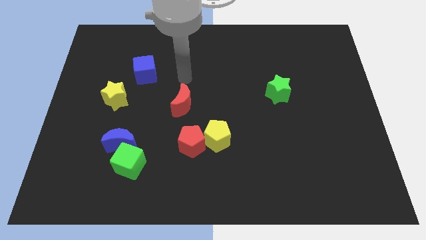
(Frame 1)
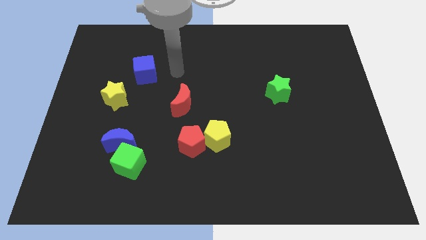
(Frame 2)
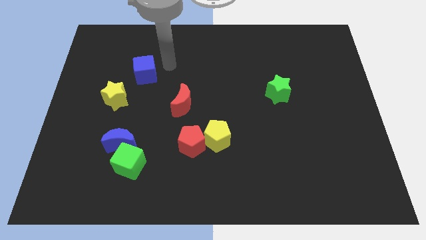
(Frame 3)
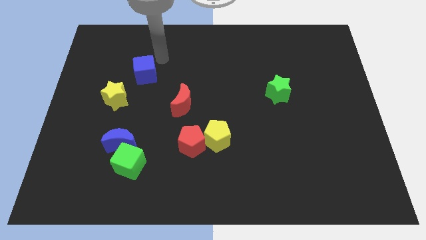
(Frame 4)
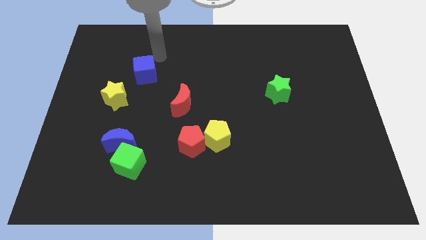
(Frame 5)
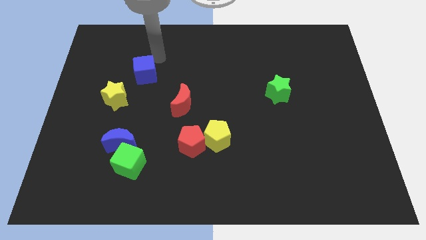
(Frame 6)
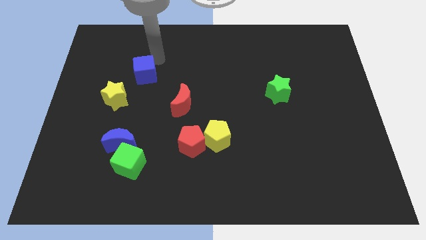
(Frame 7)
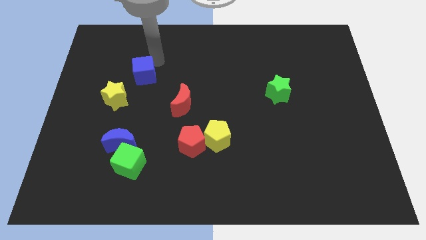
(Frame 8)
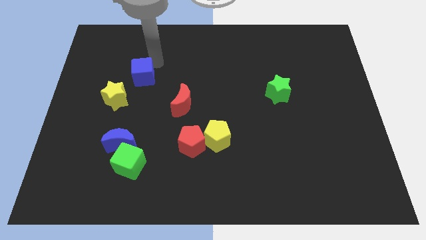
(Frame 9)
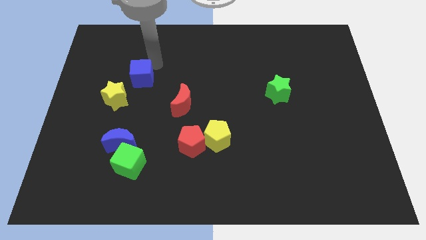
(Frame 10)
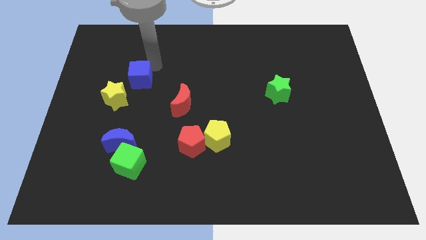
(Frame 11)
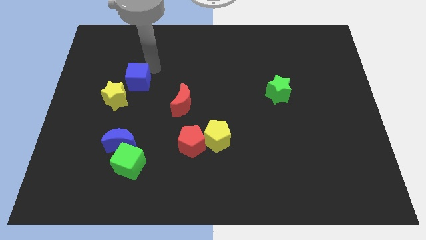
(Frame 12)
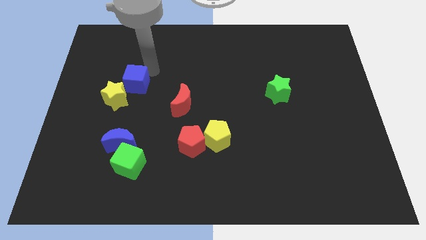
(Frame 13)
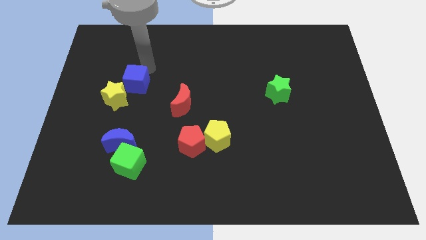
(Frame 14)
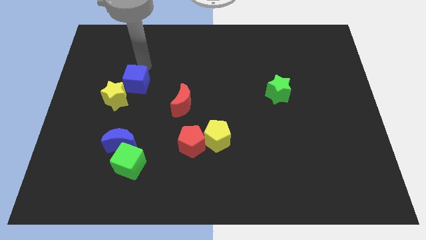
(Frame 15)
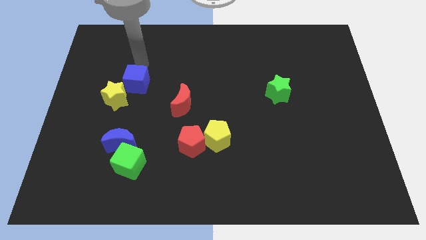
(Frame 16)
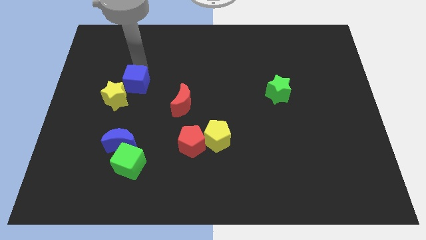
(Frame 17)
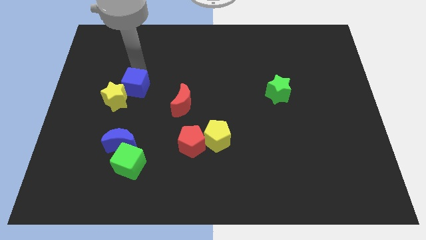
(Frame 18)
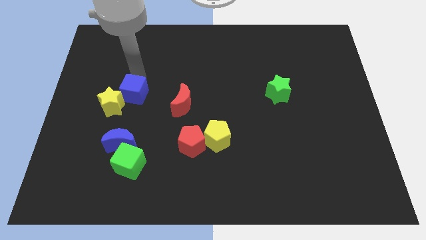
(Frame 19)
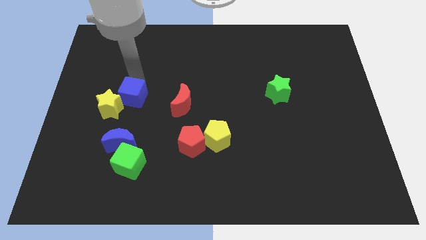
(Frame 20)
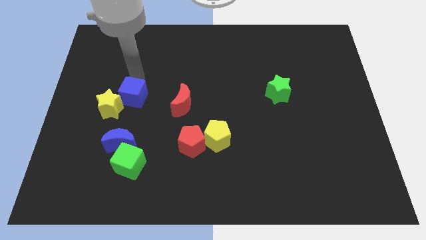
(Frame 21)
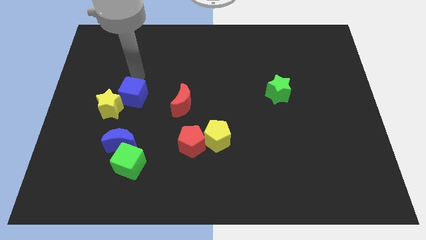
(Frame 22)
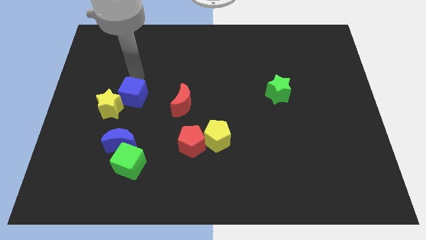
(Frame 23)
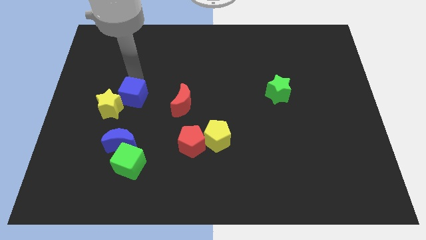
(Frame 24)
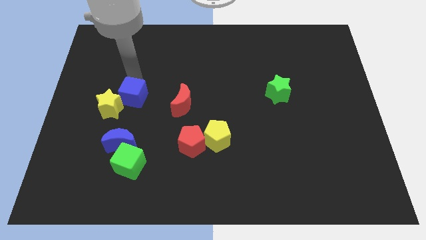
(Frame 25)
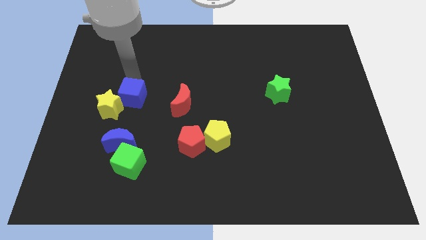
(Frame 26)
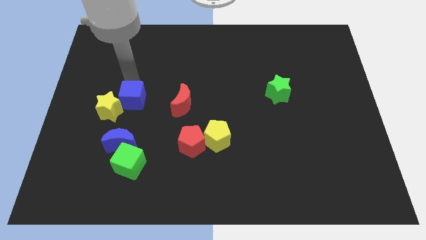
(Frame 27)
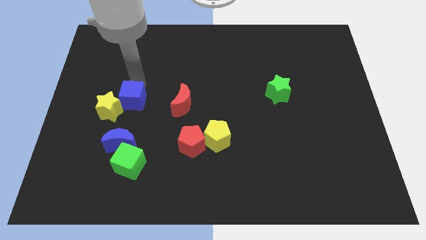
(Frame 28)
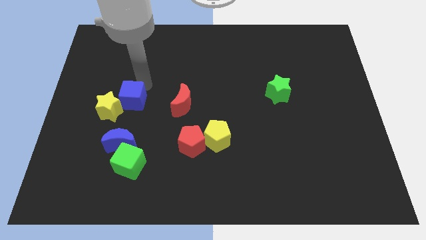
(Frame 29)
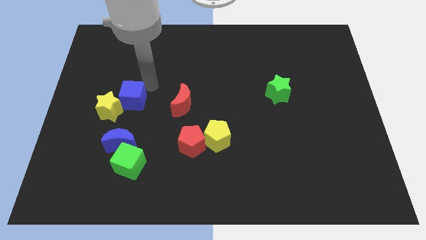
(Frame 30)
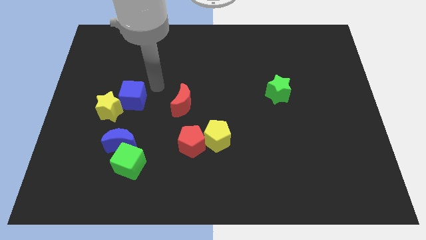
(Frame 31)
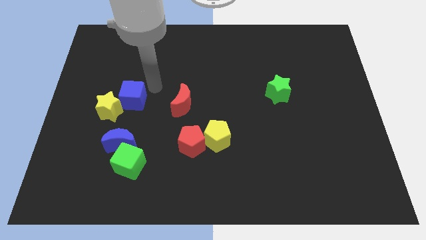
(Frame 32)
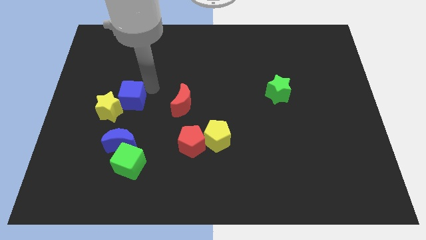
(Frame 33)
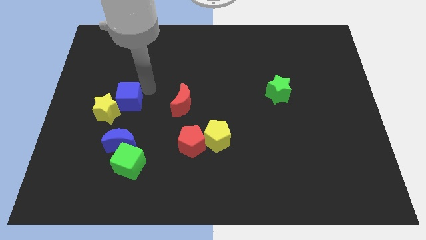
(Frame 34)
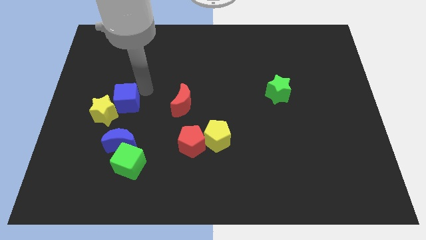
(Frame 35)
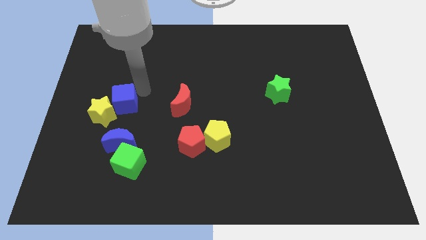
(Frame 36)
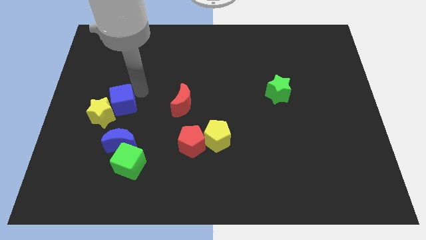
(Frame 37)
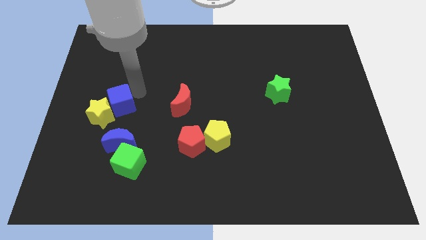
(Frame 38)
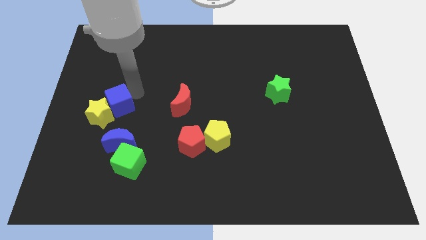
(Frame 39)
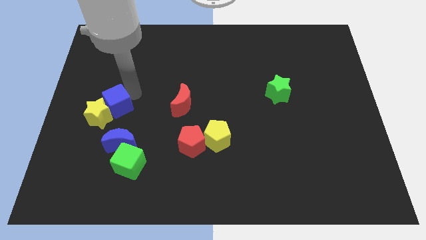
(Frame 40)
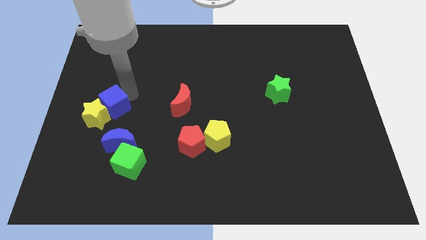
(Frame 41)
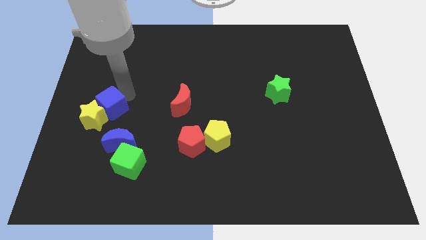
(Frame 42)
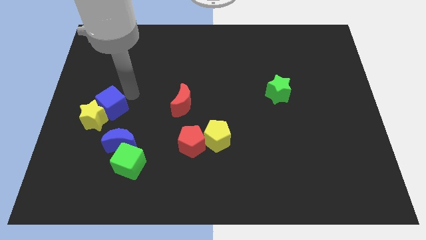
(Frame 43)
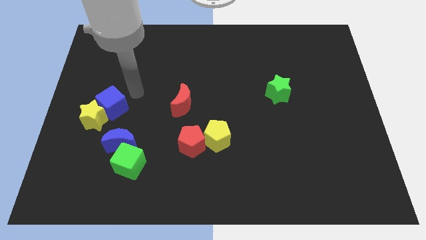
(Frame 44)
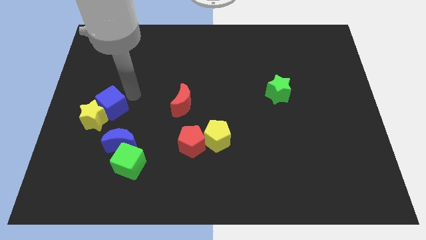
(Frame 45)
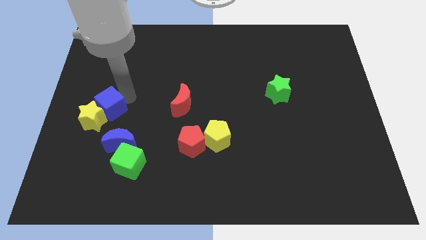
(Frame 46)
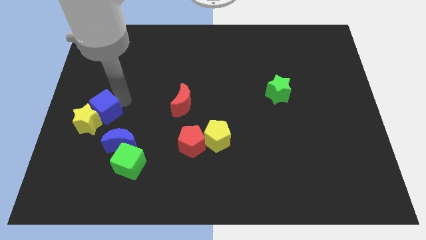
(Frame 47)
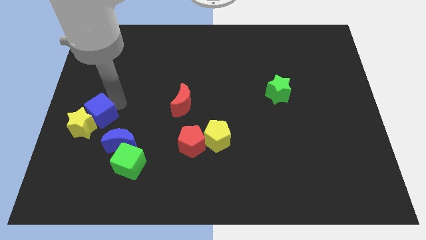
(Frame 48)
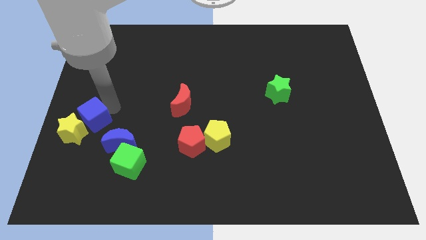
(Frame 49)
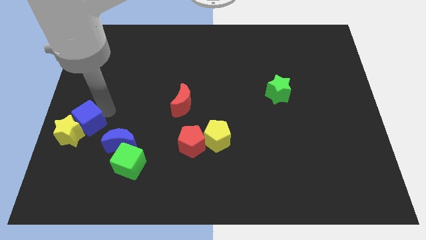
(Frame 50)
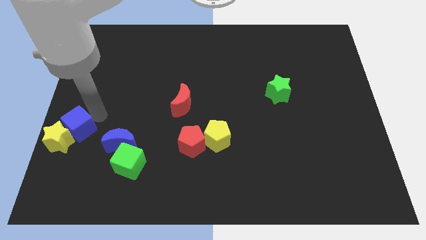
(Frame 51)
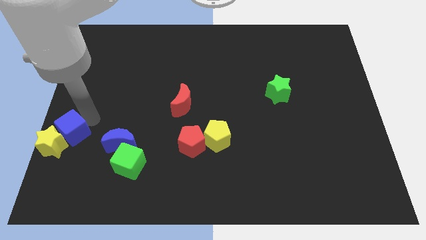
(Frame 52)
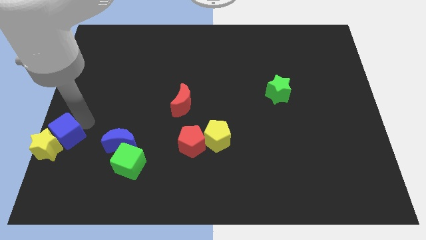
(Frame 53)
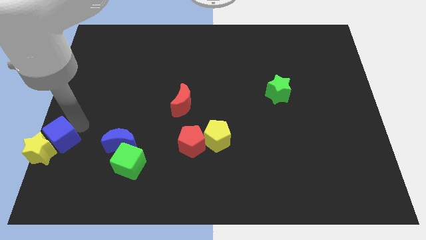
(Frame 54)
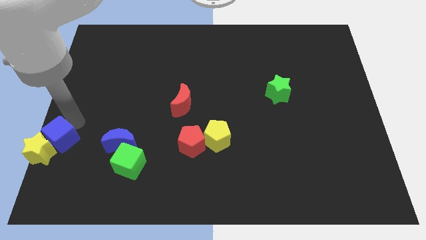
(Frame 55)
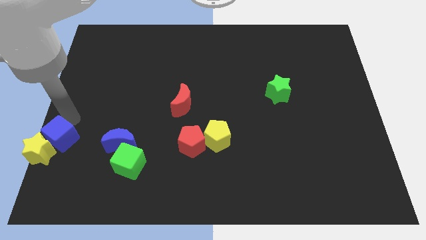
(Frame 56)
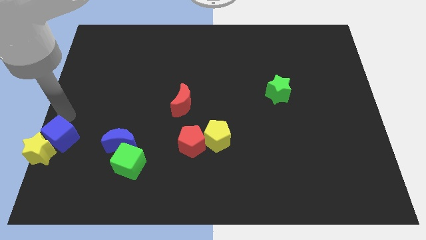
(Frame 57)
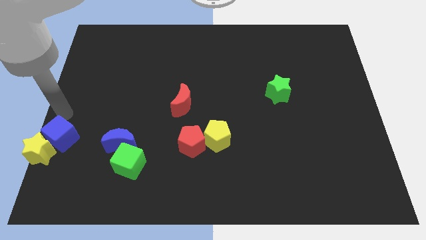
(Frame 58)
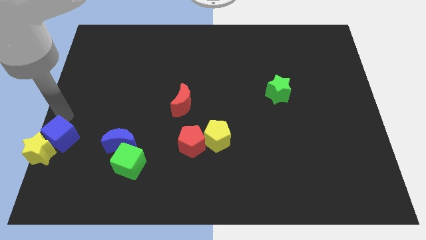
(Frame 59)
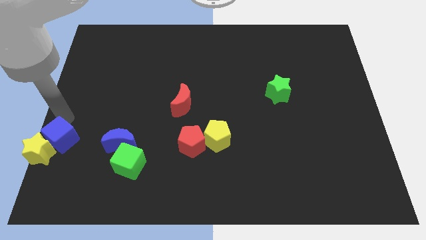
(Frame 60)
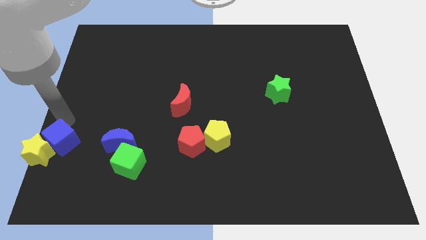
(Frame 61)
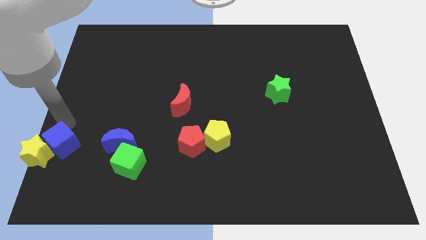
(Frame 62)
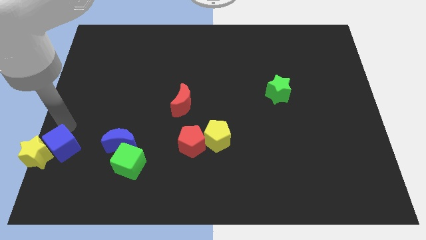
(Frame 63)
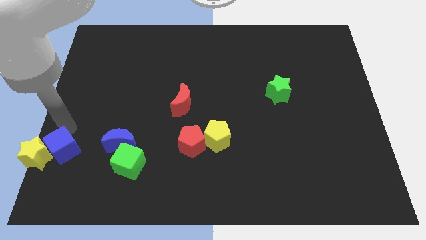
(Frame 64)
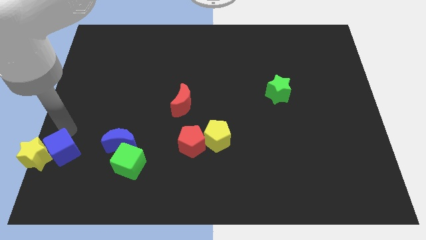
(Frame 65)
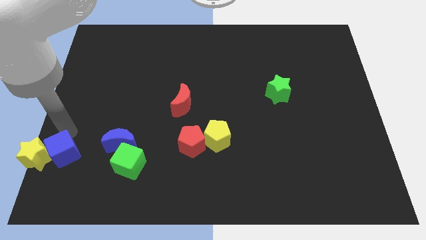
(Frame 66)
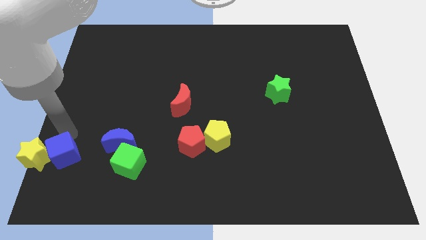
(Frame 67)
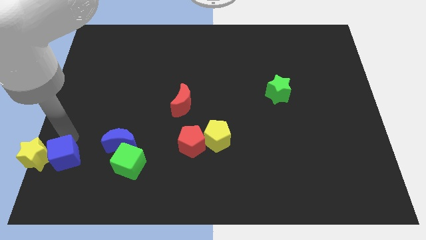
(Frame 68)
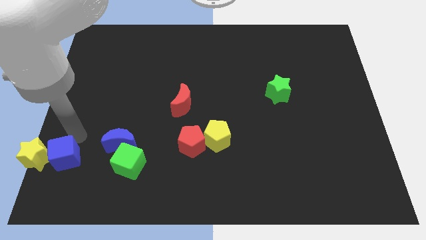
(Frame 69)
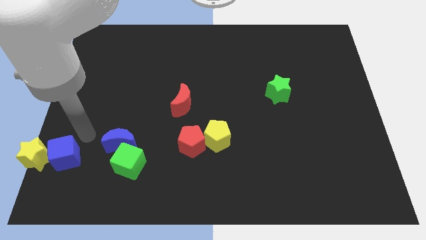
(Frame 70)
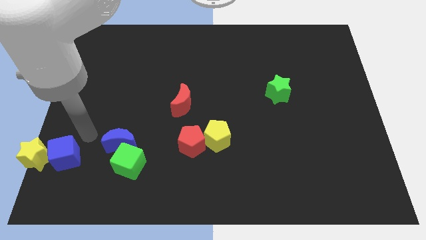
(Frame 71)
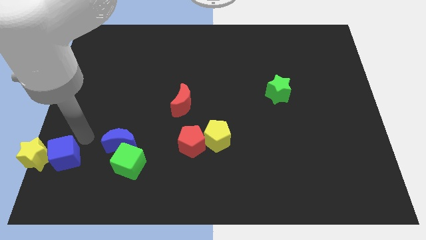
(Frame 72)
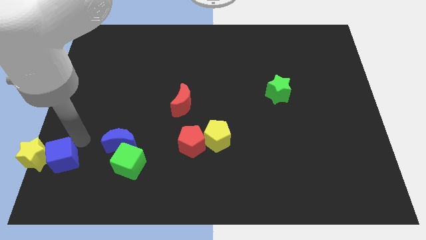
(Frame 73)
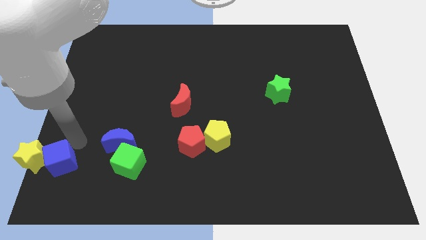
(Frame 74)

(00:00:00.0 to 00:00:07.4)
push the blue cube to the bottom left corner
